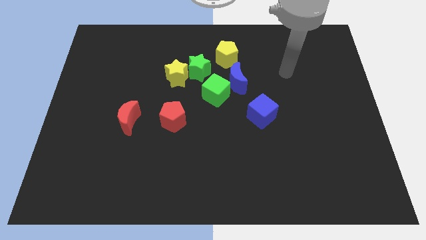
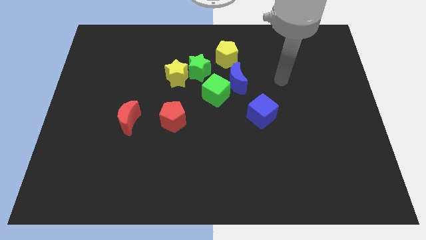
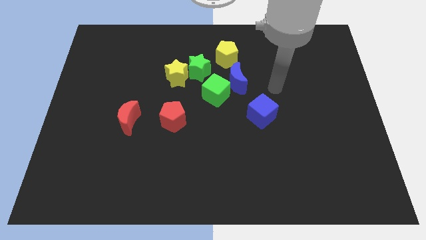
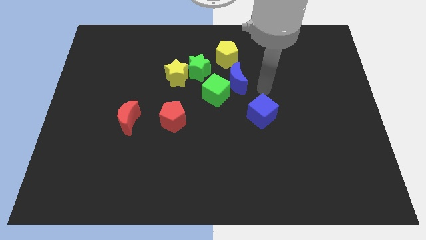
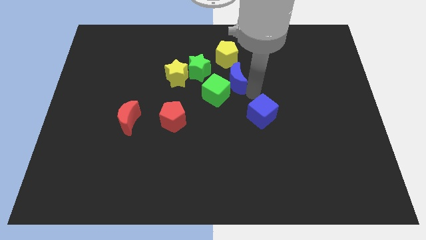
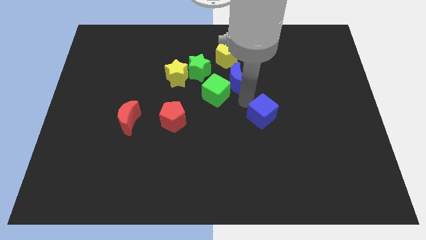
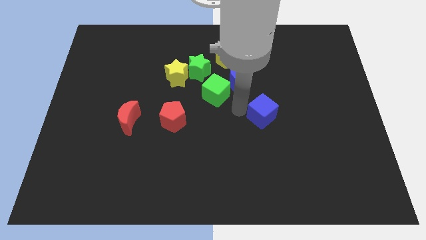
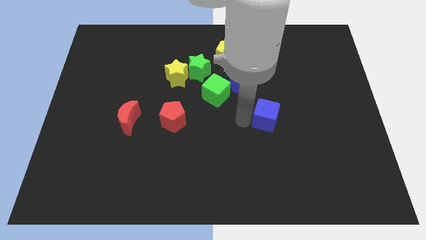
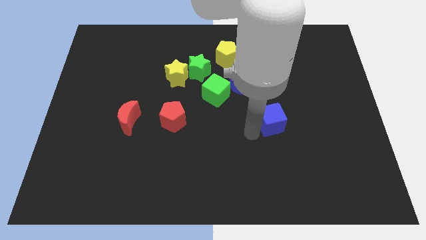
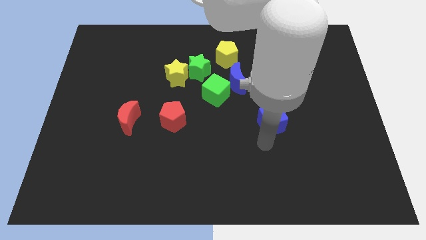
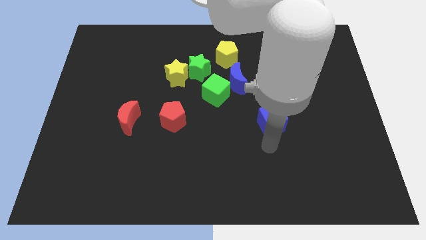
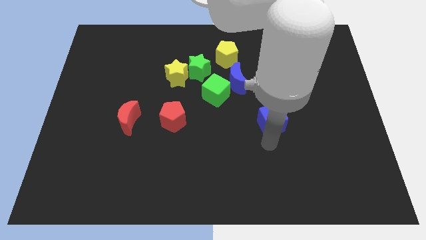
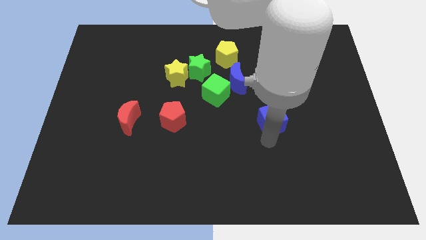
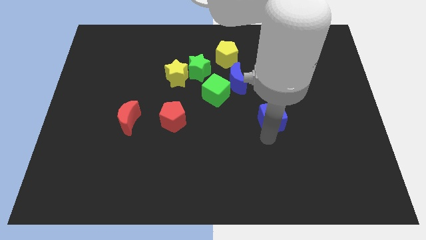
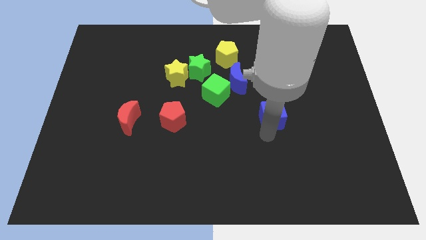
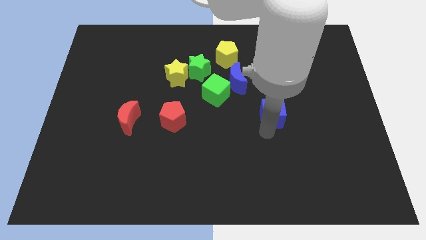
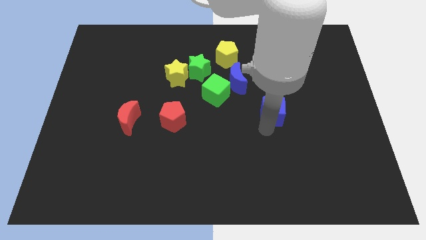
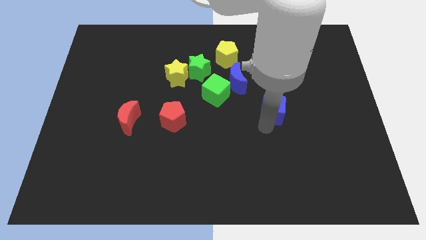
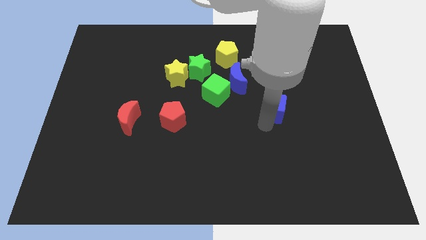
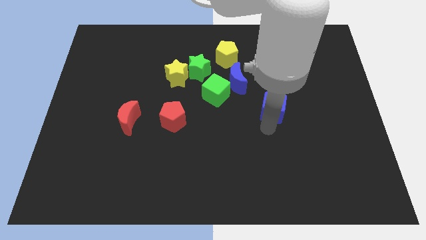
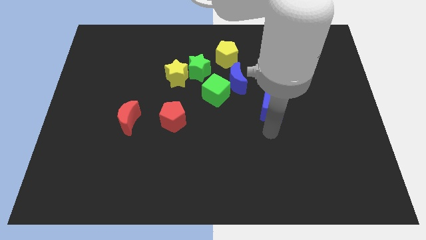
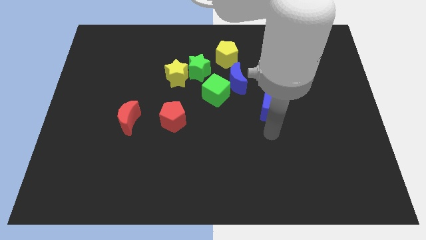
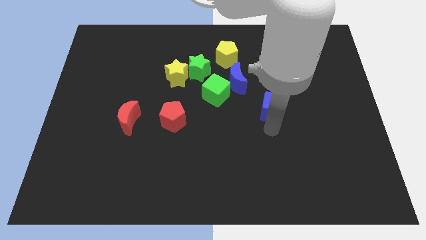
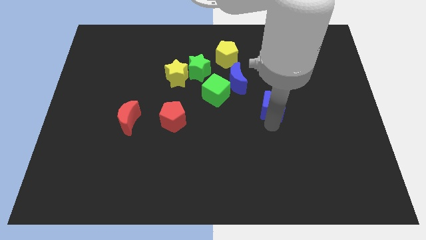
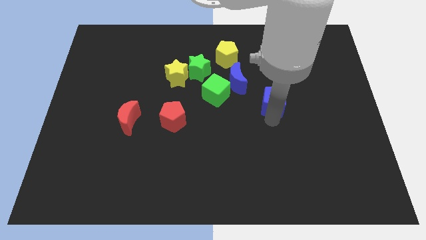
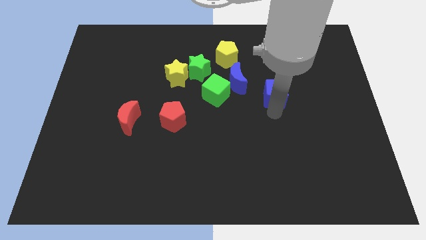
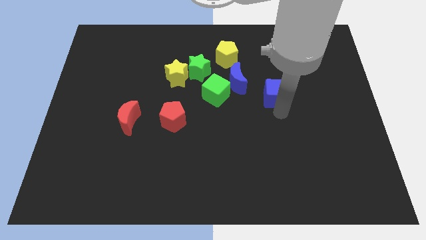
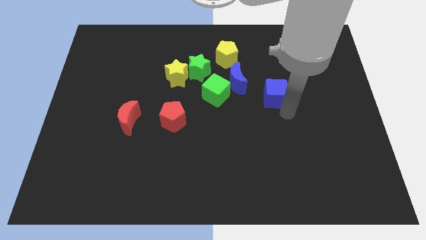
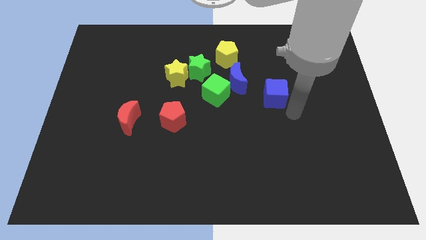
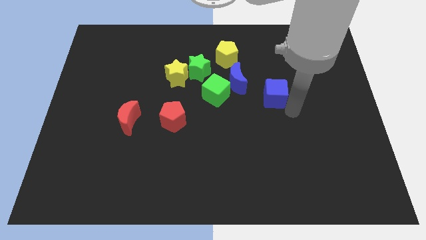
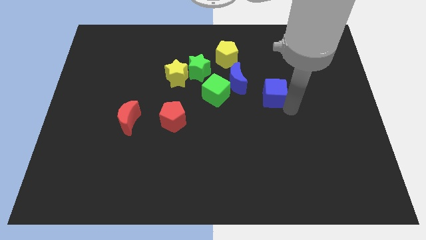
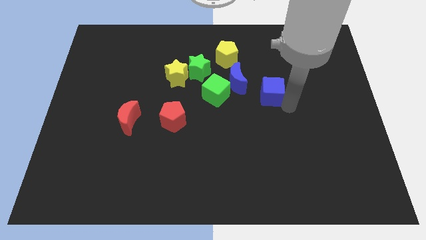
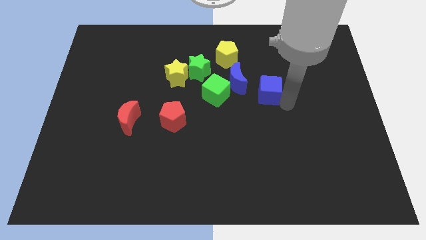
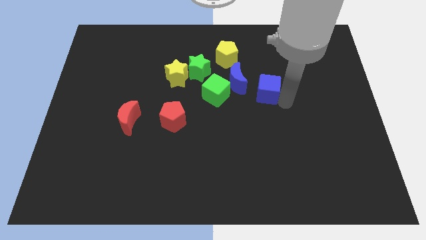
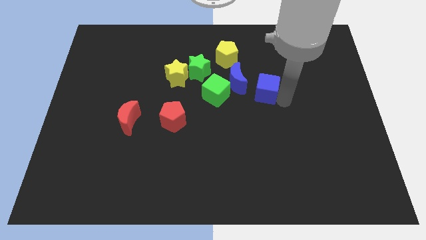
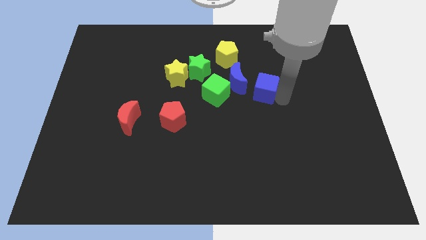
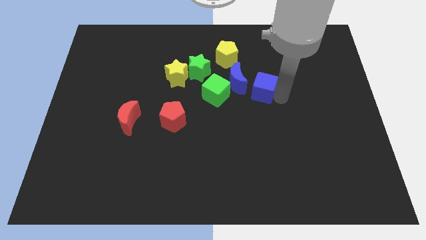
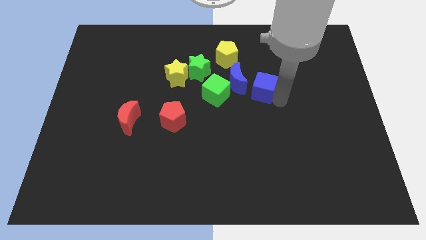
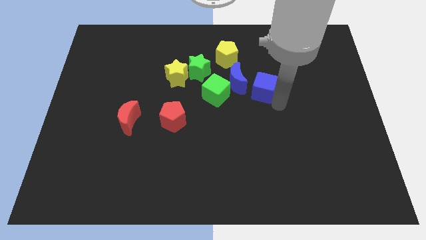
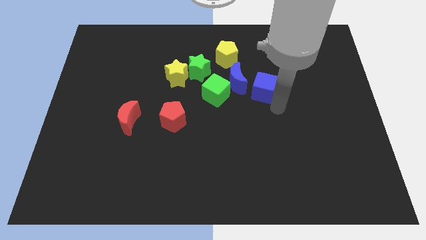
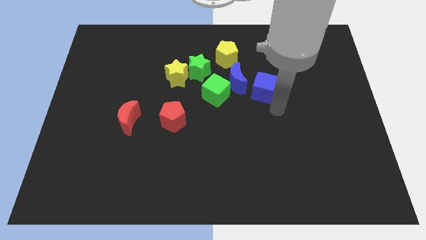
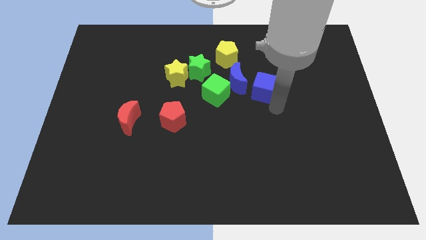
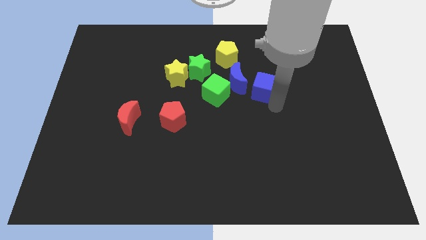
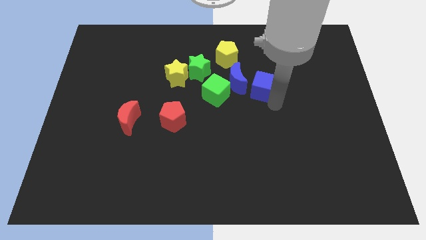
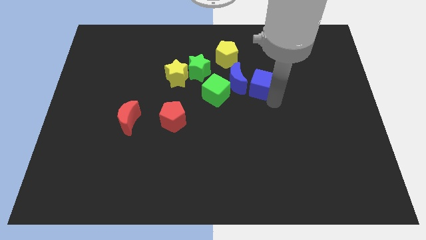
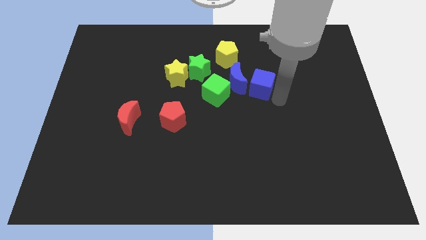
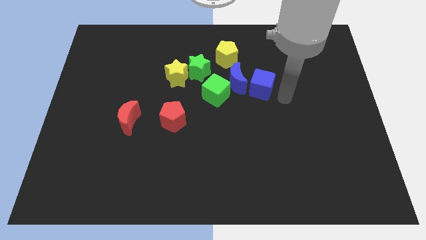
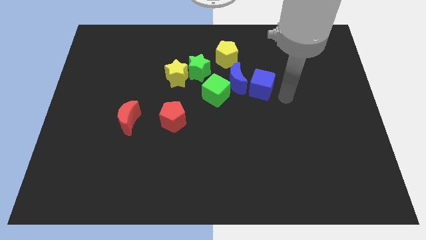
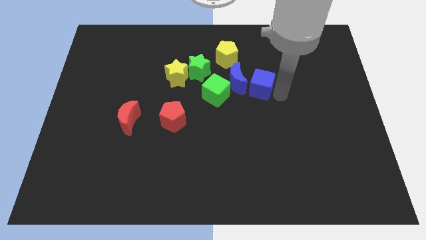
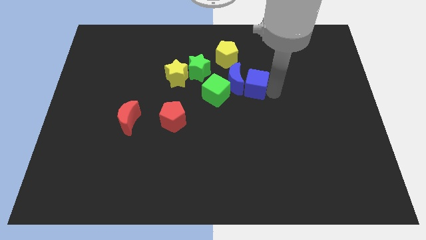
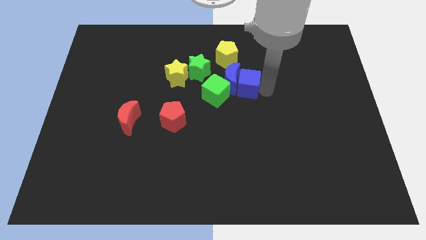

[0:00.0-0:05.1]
slide the blue cube to the top right of the green cube

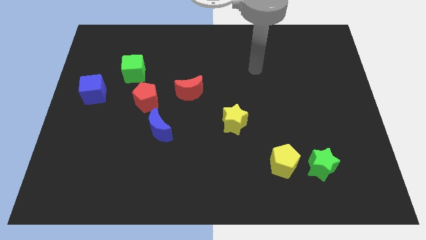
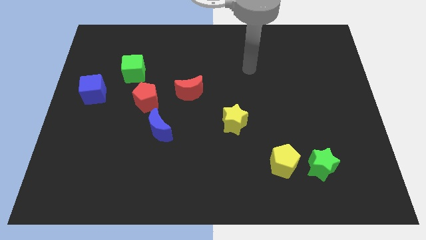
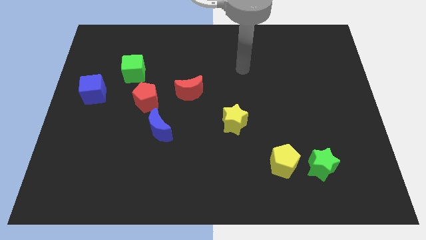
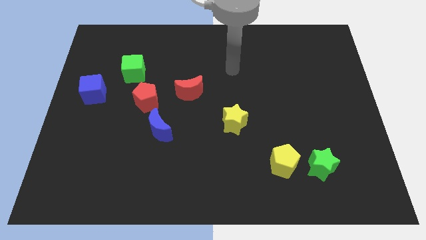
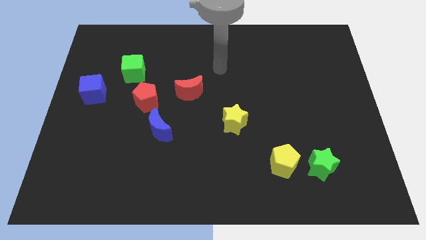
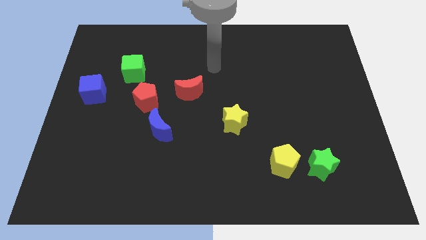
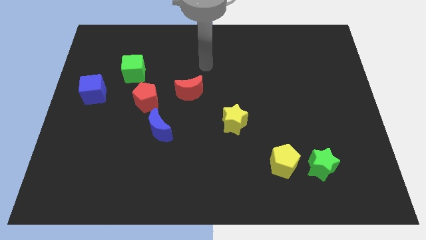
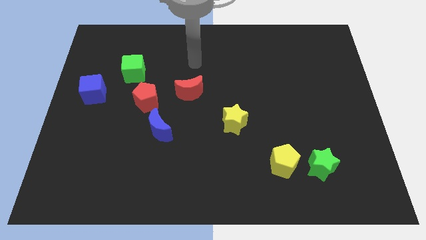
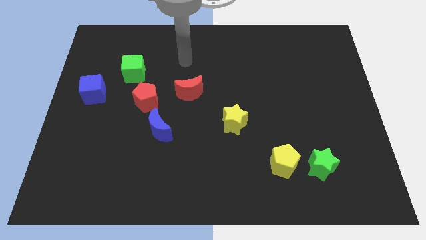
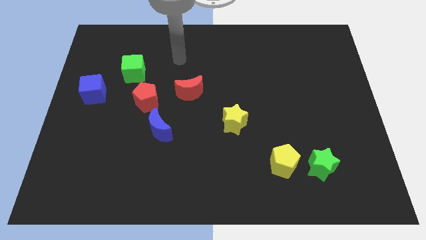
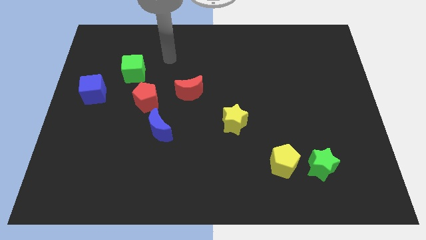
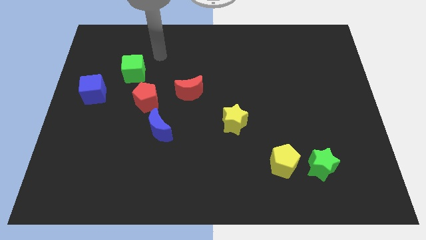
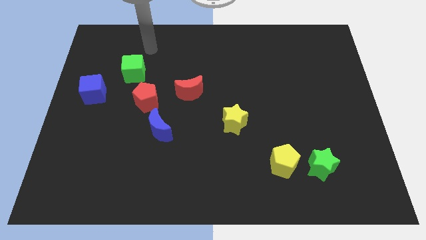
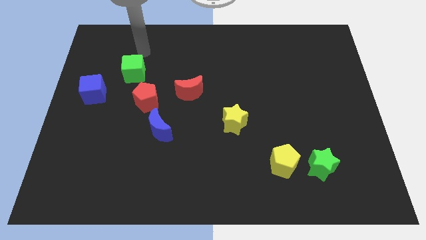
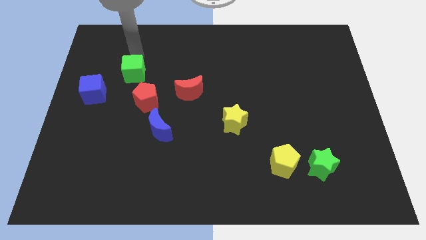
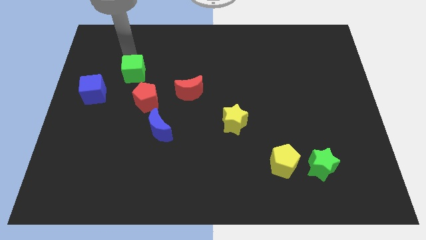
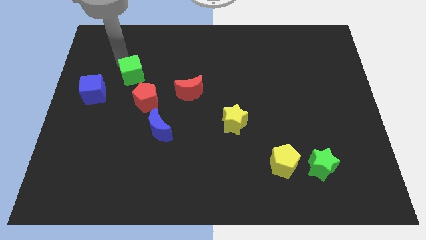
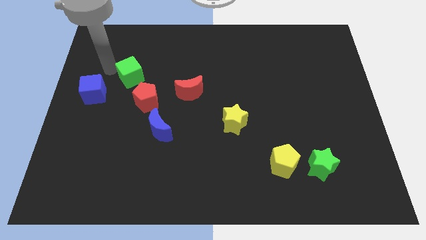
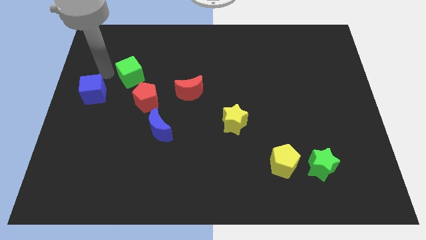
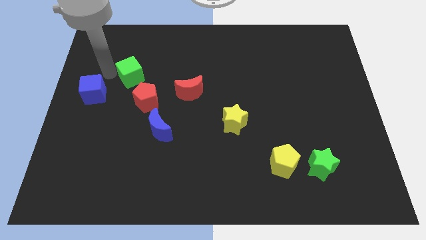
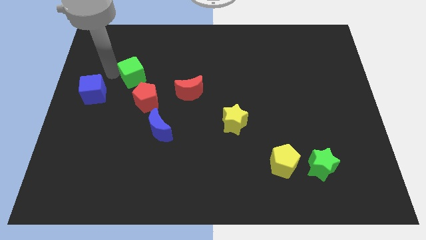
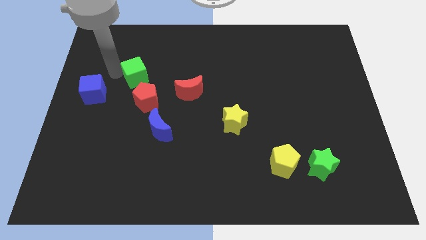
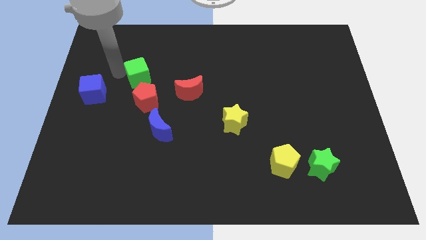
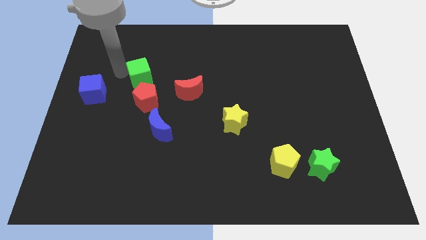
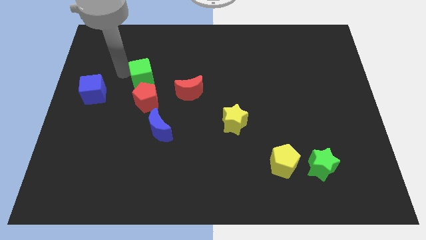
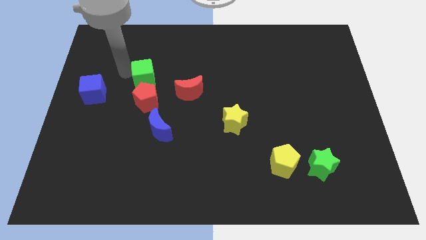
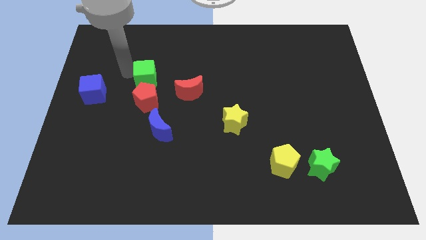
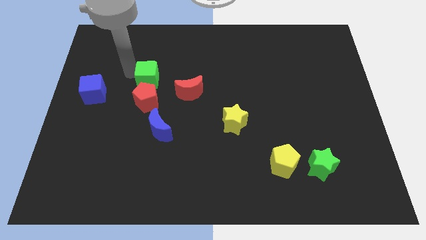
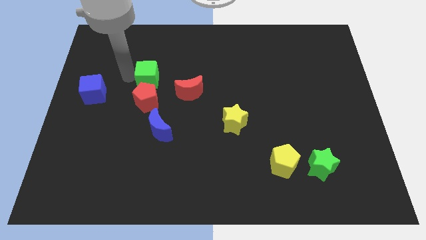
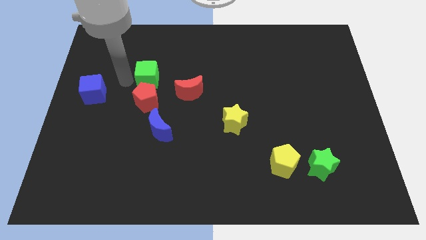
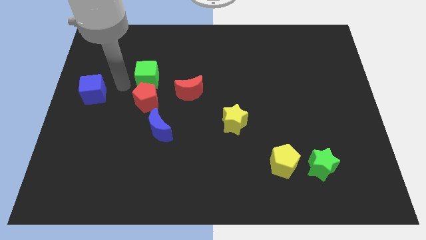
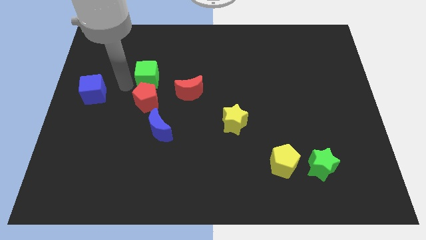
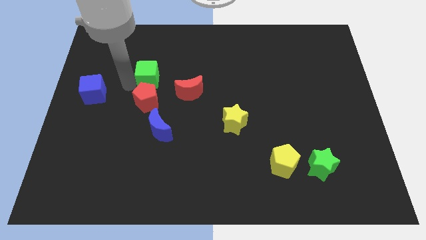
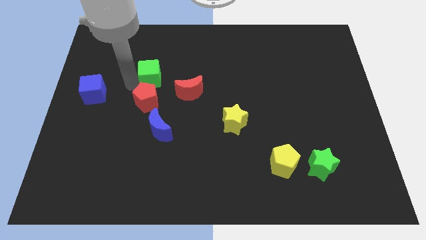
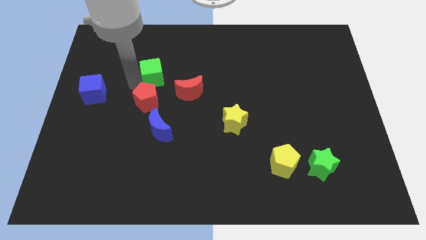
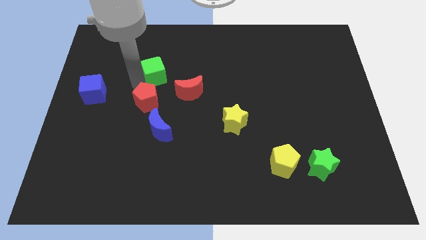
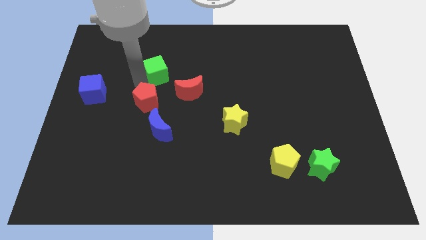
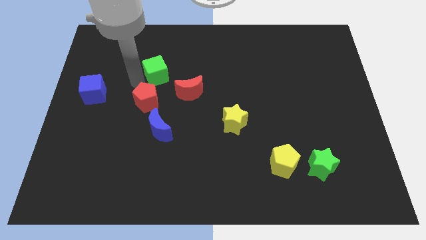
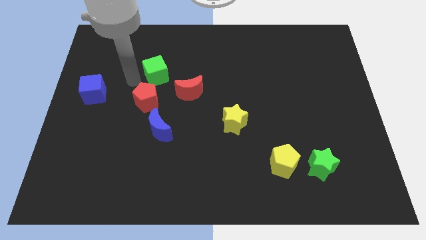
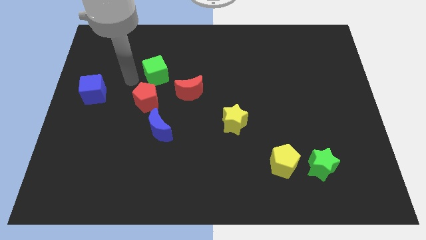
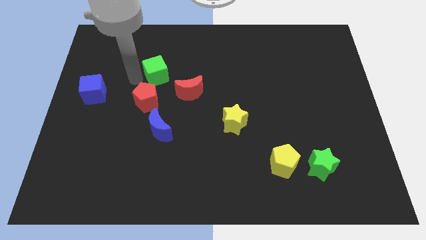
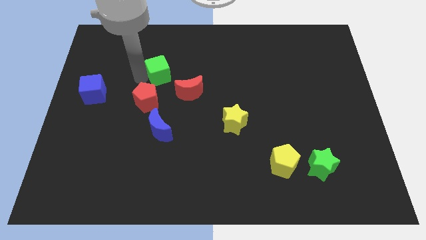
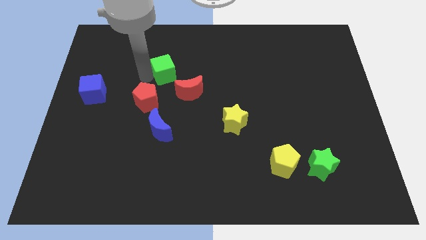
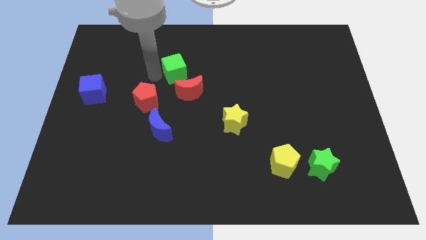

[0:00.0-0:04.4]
slide the green cube to the top side of the red moon
